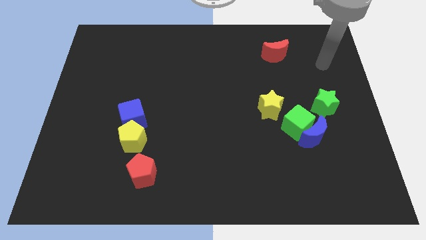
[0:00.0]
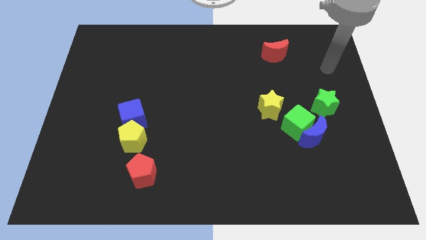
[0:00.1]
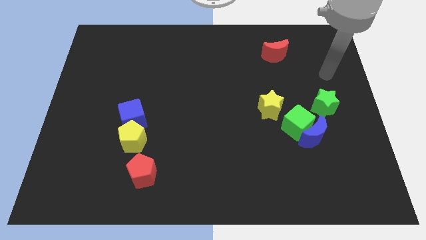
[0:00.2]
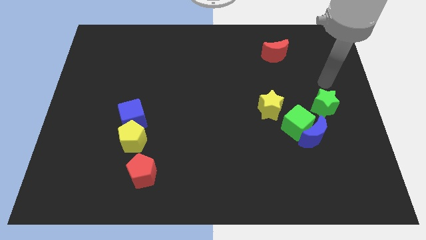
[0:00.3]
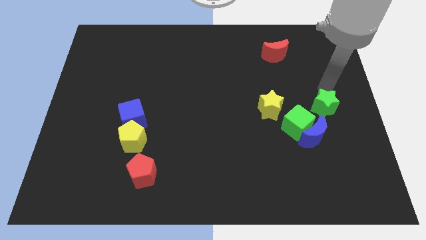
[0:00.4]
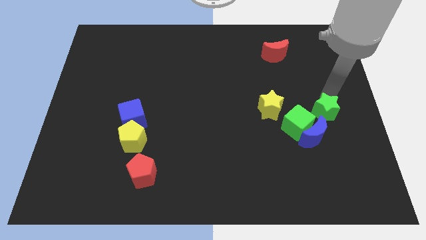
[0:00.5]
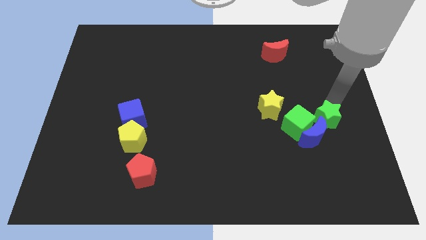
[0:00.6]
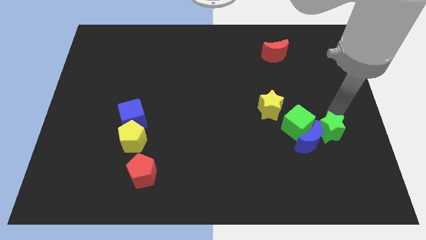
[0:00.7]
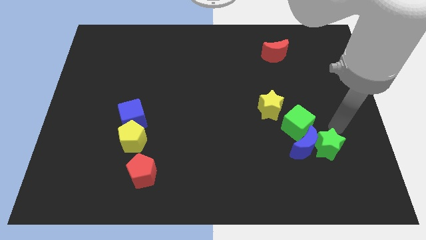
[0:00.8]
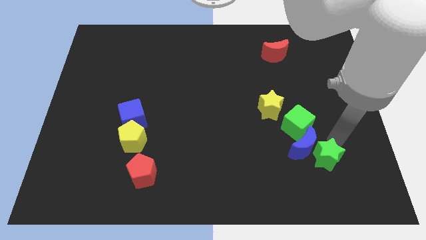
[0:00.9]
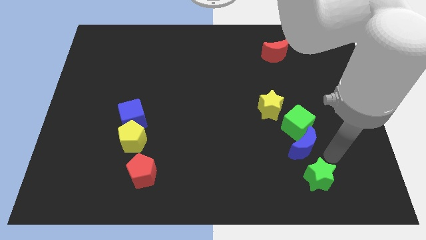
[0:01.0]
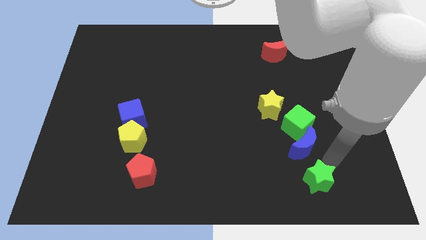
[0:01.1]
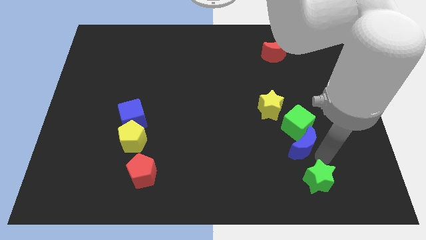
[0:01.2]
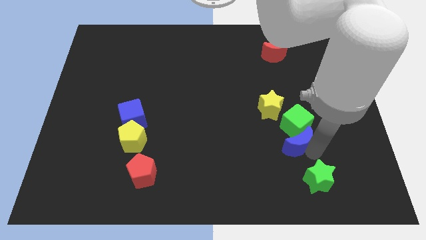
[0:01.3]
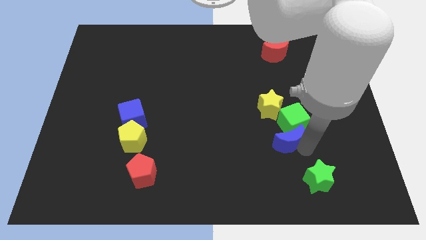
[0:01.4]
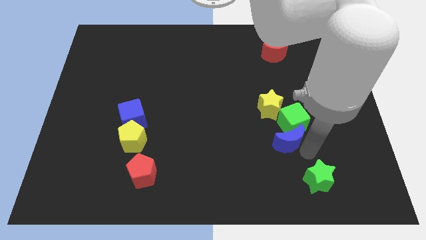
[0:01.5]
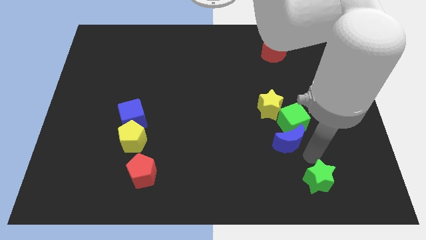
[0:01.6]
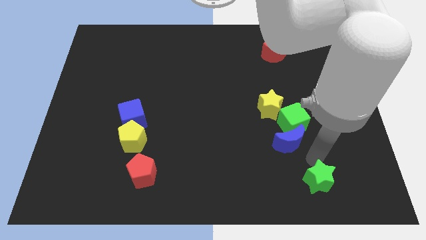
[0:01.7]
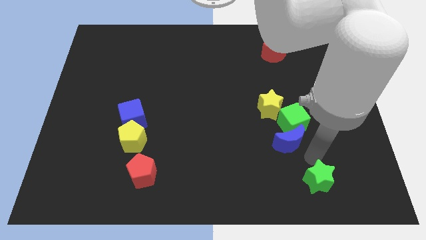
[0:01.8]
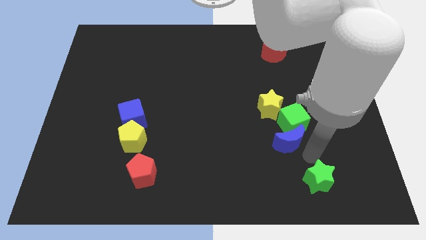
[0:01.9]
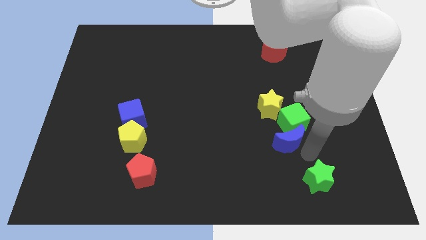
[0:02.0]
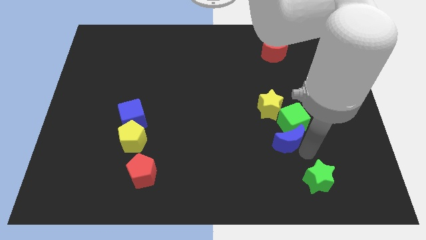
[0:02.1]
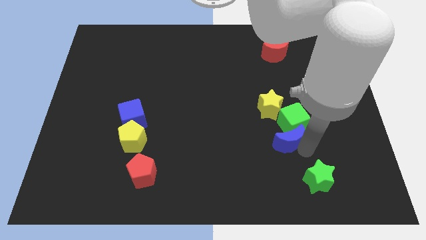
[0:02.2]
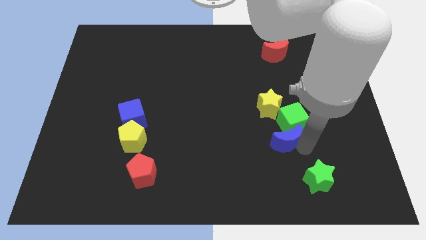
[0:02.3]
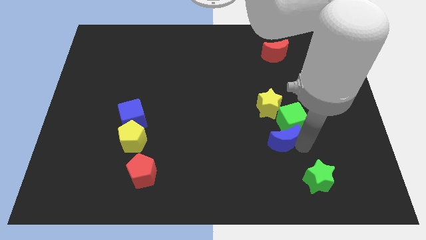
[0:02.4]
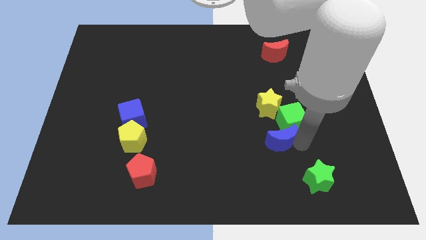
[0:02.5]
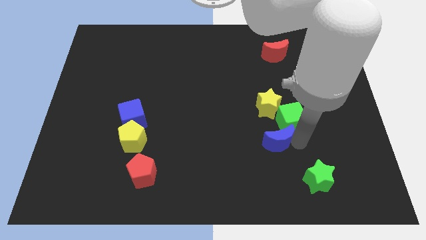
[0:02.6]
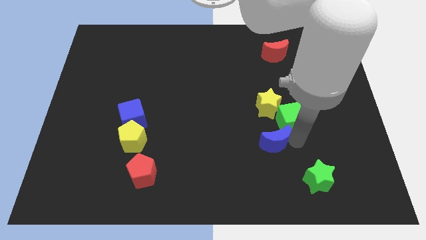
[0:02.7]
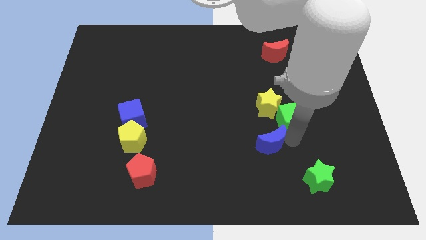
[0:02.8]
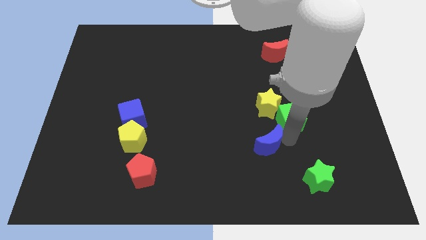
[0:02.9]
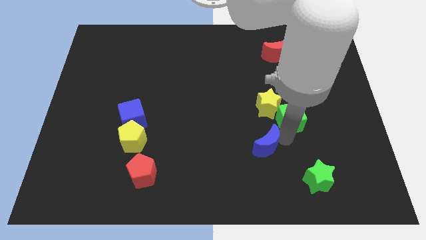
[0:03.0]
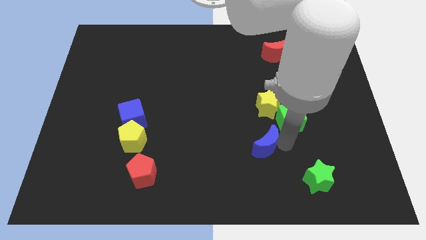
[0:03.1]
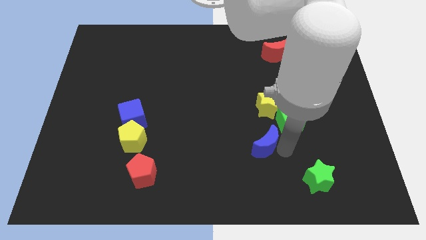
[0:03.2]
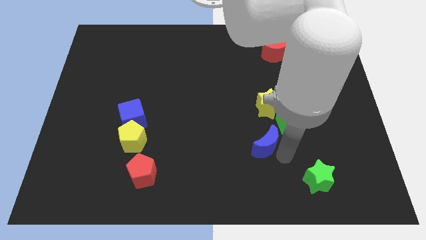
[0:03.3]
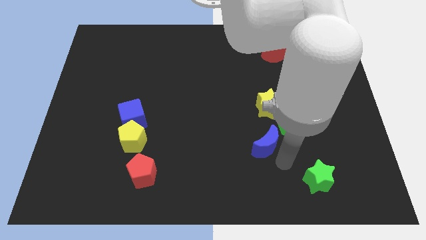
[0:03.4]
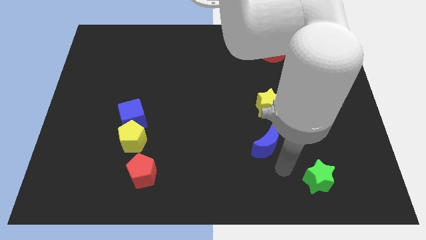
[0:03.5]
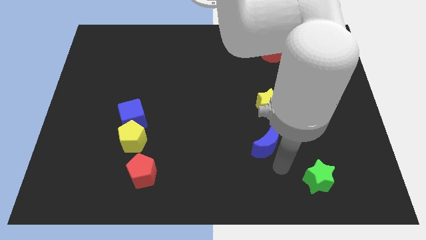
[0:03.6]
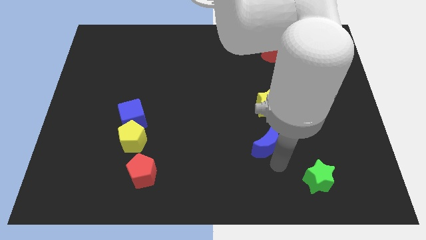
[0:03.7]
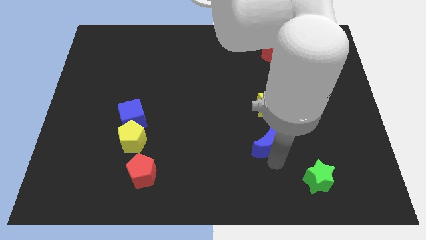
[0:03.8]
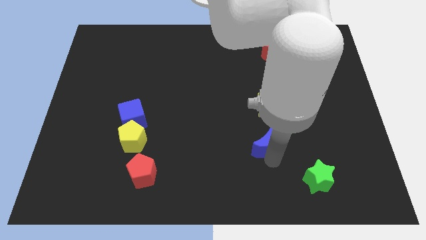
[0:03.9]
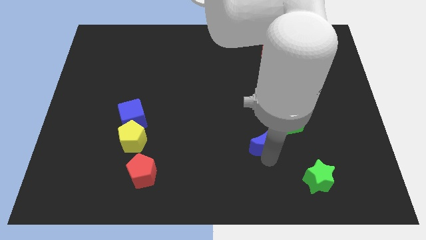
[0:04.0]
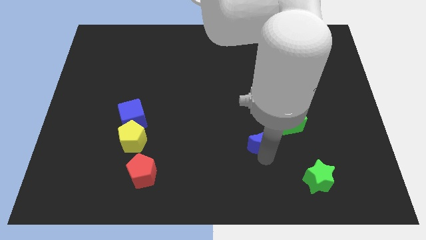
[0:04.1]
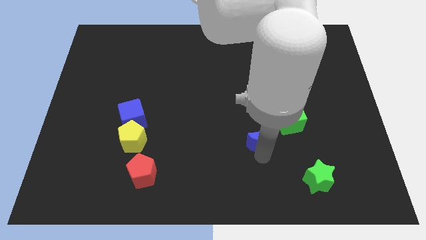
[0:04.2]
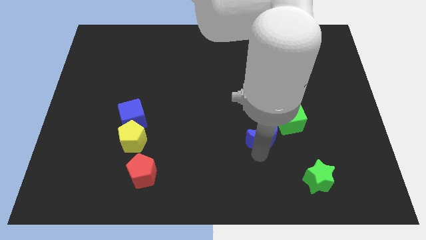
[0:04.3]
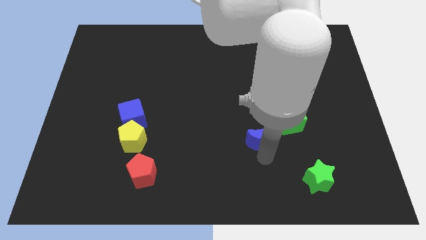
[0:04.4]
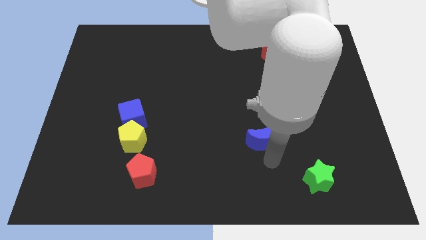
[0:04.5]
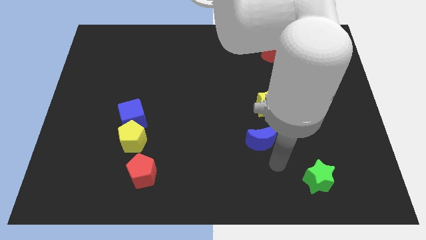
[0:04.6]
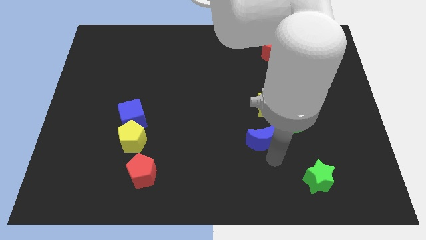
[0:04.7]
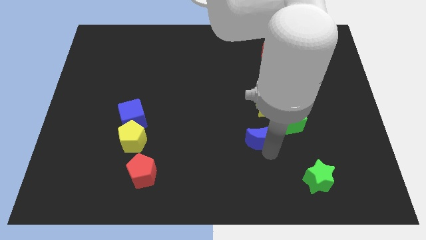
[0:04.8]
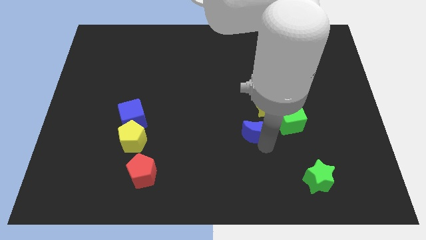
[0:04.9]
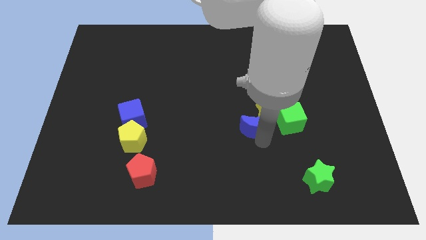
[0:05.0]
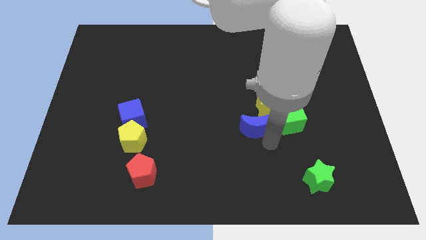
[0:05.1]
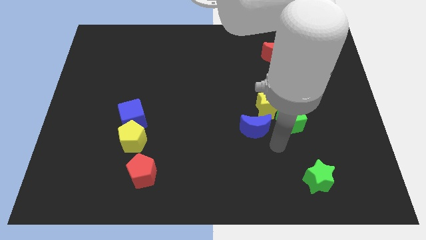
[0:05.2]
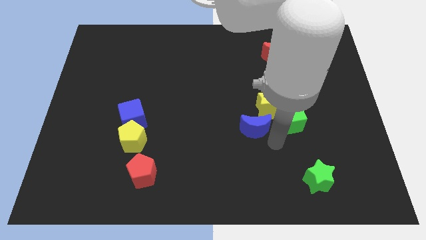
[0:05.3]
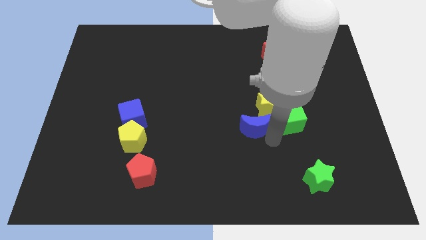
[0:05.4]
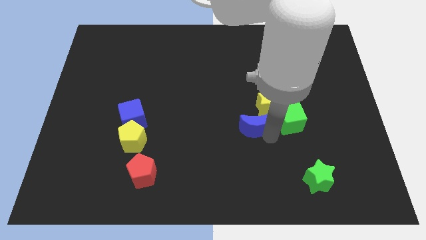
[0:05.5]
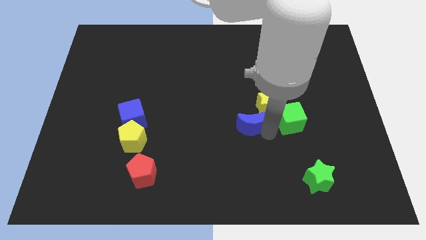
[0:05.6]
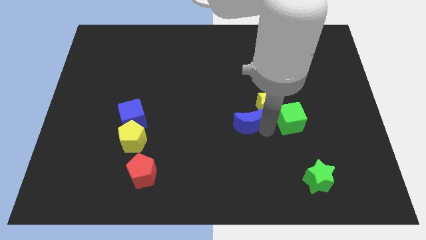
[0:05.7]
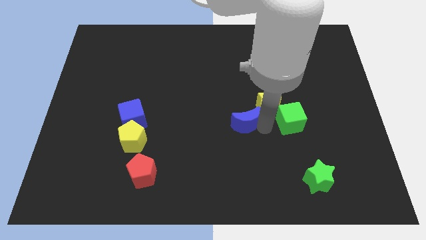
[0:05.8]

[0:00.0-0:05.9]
slide the blue moon to the left of the yellow star

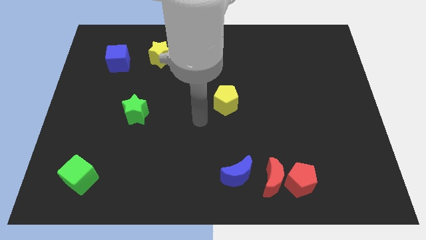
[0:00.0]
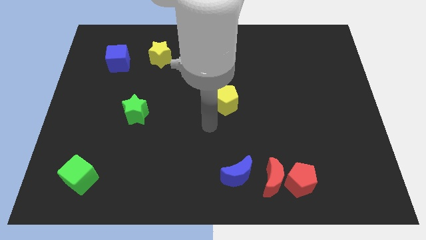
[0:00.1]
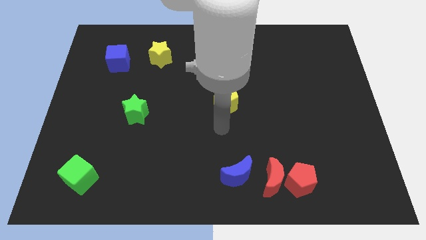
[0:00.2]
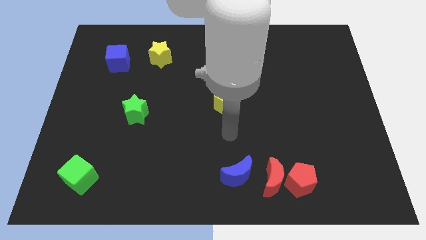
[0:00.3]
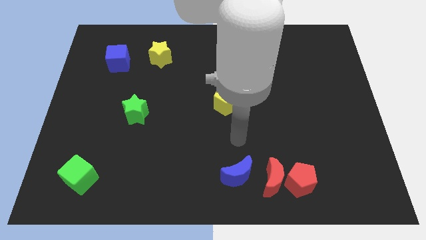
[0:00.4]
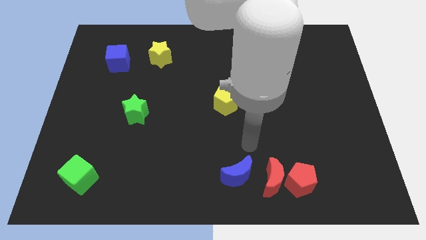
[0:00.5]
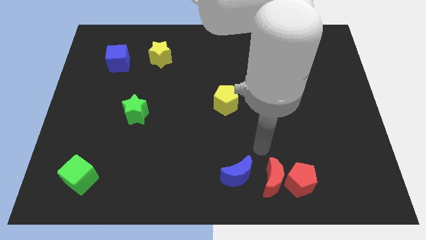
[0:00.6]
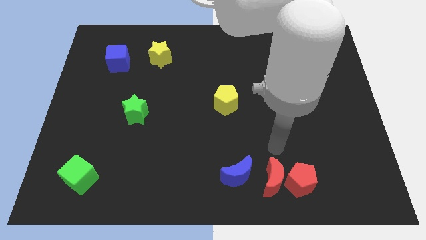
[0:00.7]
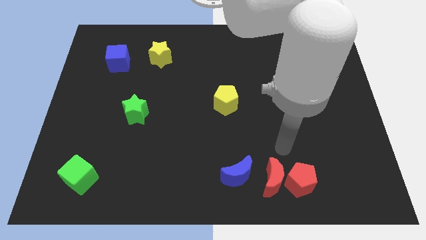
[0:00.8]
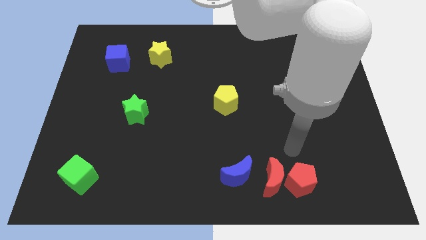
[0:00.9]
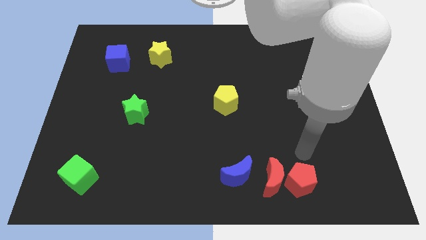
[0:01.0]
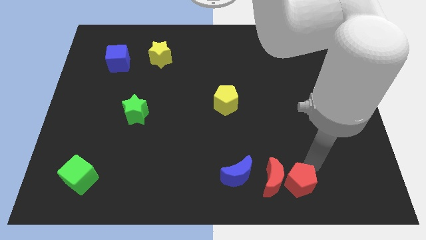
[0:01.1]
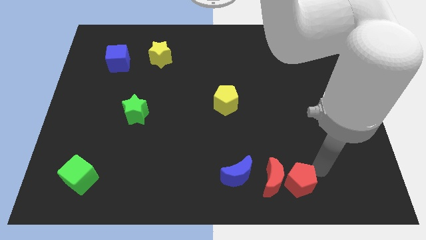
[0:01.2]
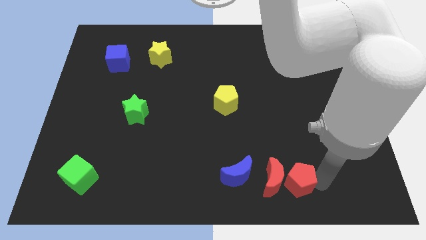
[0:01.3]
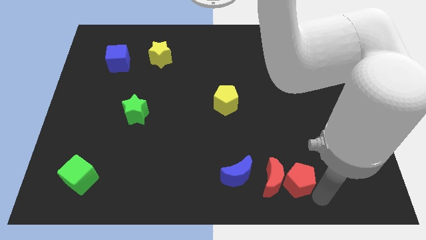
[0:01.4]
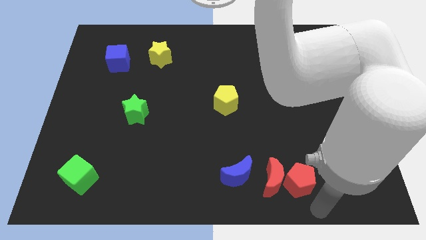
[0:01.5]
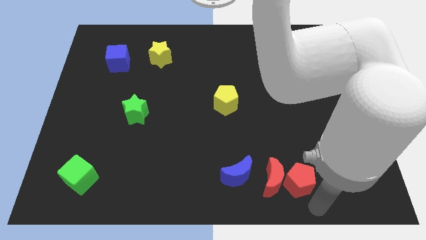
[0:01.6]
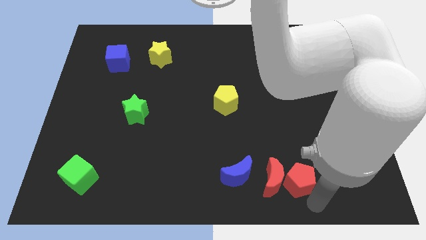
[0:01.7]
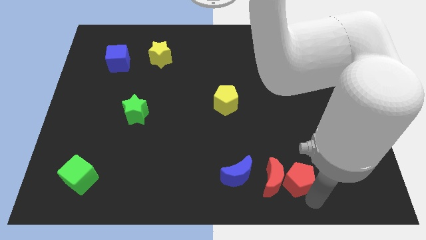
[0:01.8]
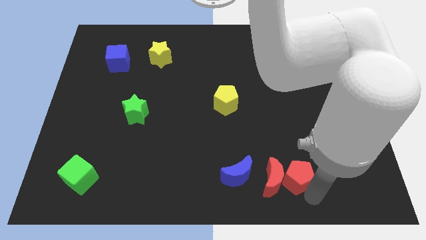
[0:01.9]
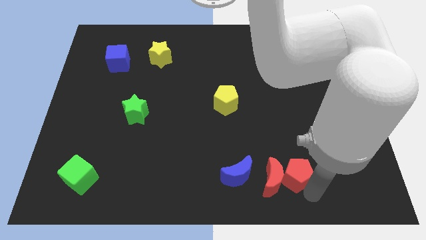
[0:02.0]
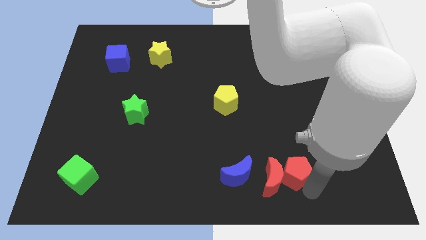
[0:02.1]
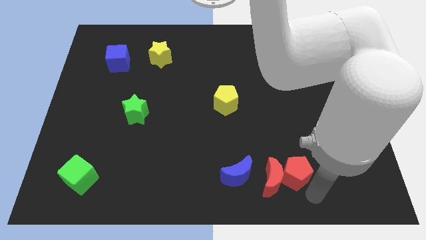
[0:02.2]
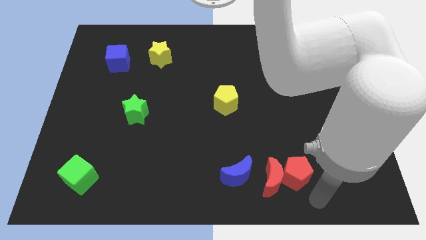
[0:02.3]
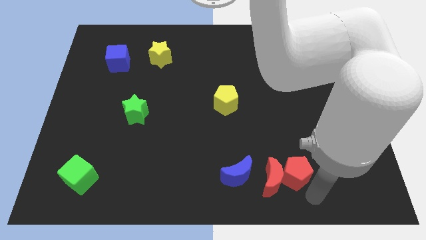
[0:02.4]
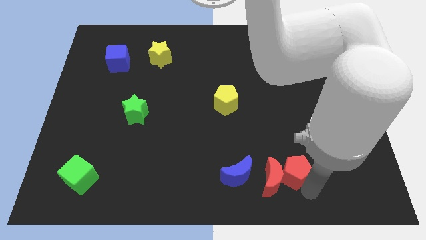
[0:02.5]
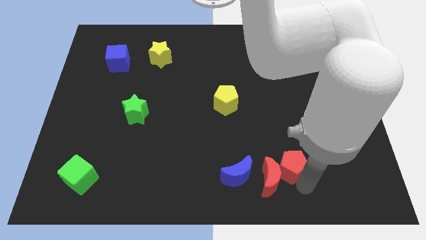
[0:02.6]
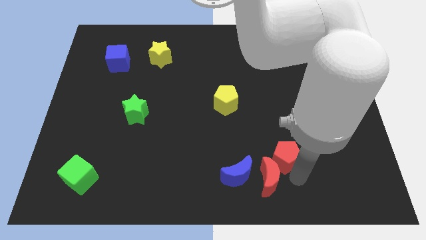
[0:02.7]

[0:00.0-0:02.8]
slide the red pentagon to the top side of the red moon
